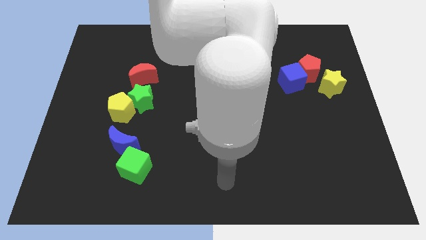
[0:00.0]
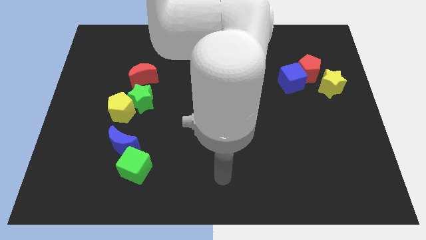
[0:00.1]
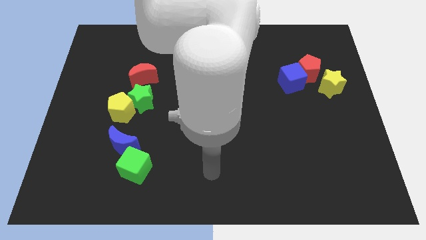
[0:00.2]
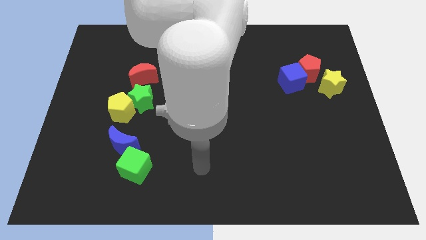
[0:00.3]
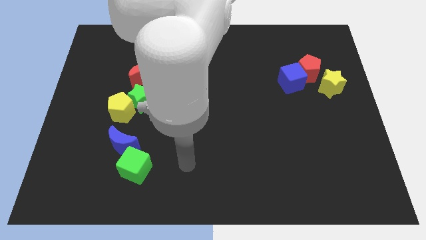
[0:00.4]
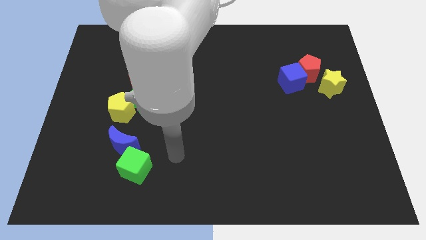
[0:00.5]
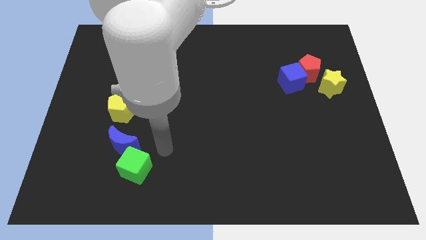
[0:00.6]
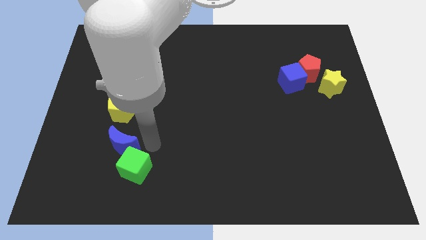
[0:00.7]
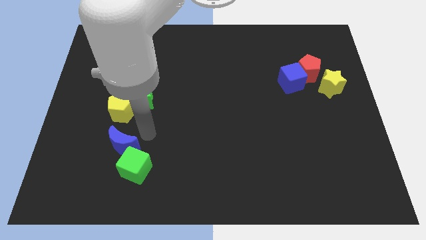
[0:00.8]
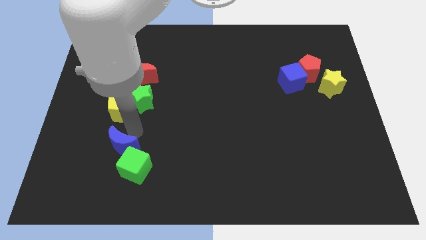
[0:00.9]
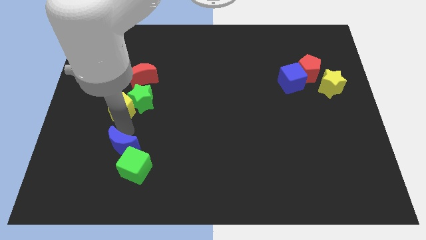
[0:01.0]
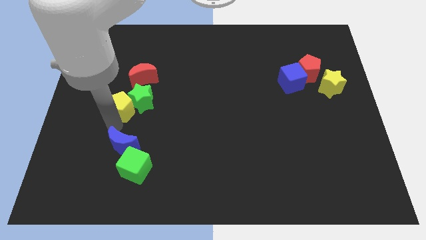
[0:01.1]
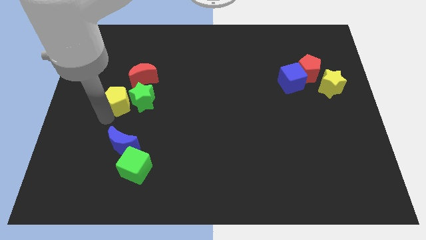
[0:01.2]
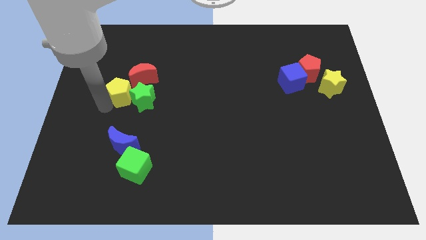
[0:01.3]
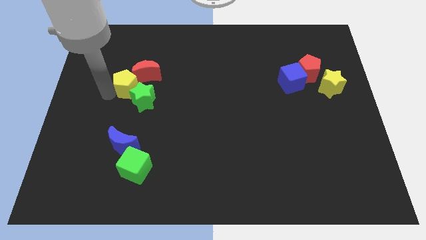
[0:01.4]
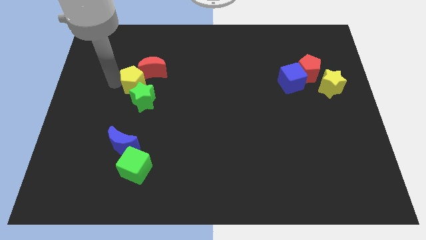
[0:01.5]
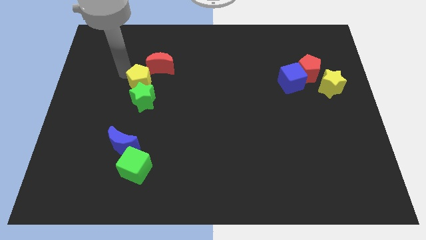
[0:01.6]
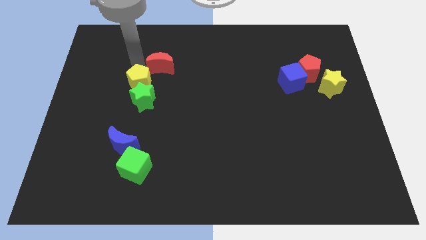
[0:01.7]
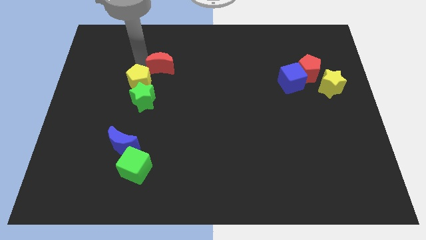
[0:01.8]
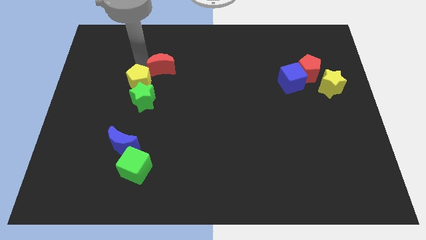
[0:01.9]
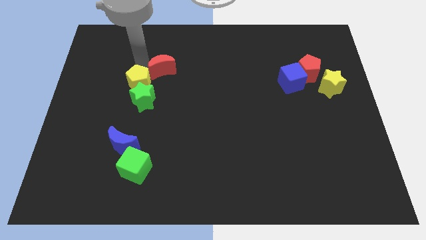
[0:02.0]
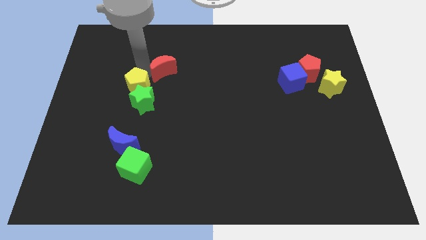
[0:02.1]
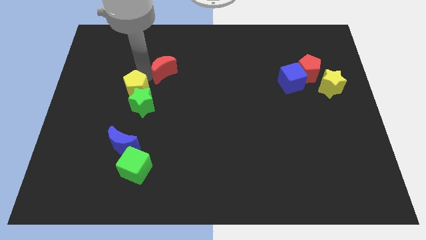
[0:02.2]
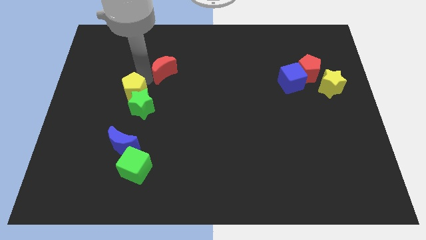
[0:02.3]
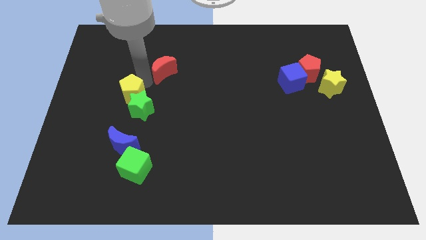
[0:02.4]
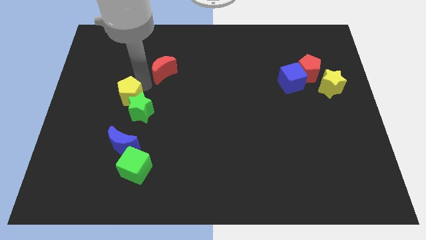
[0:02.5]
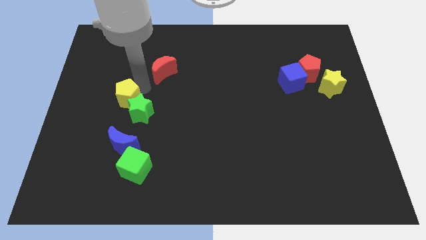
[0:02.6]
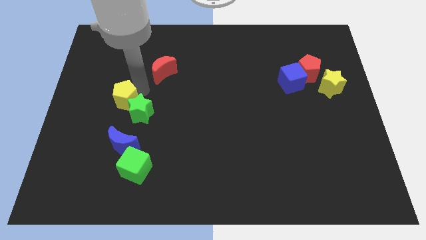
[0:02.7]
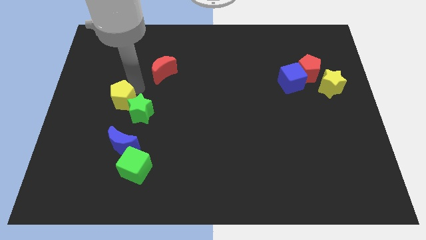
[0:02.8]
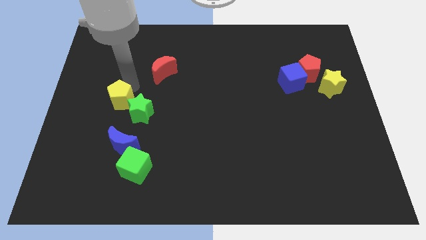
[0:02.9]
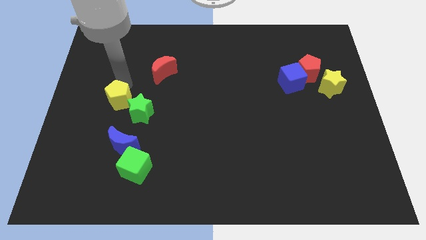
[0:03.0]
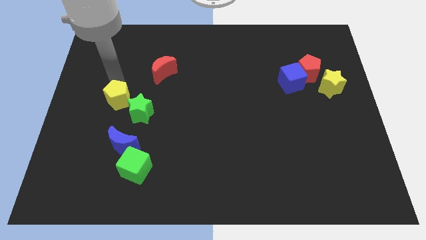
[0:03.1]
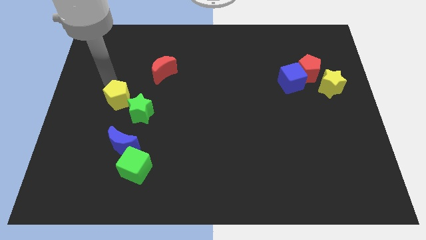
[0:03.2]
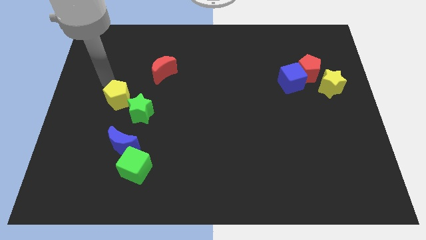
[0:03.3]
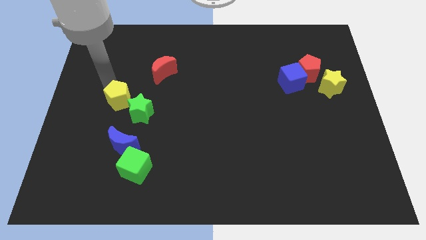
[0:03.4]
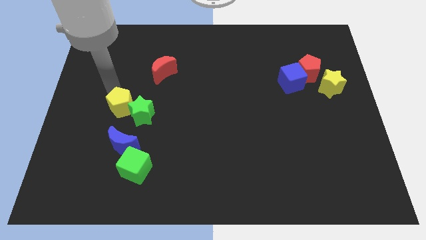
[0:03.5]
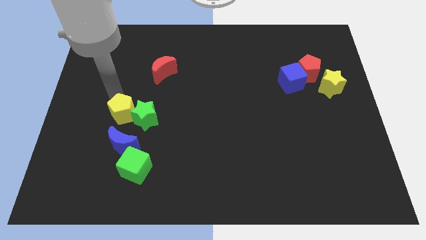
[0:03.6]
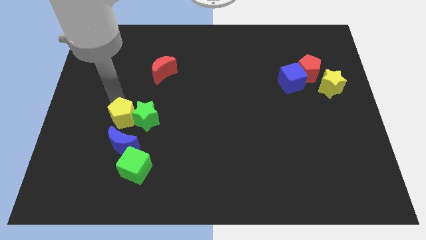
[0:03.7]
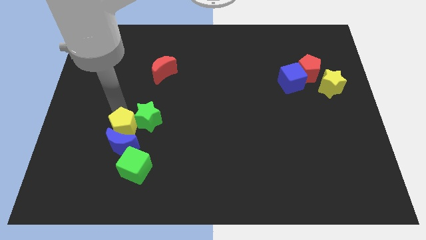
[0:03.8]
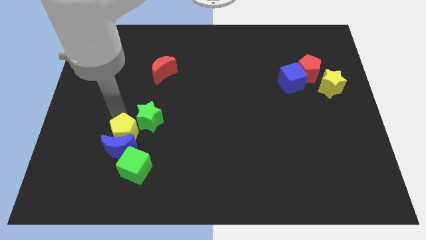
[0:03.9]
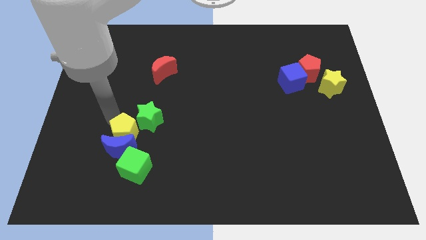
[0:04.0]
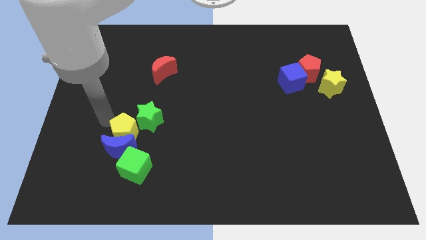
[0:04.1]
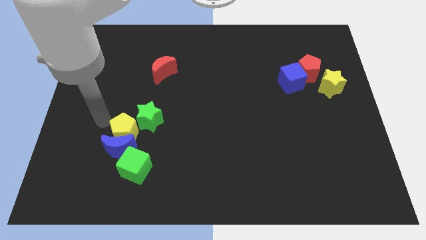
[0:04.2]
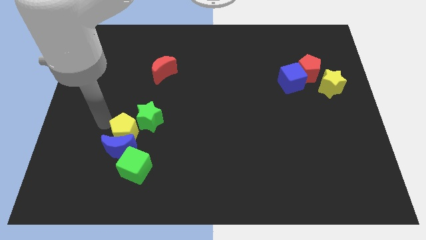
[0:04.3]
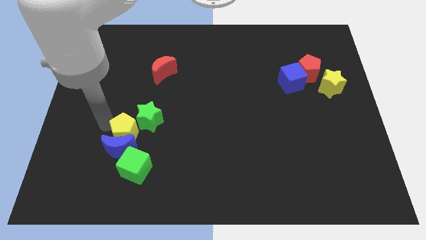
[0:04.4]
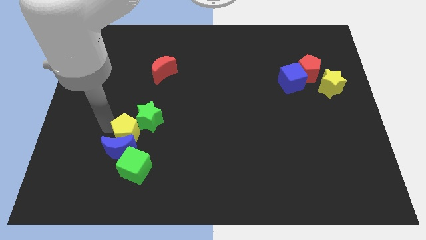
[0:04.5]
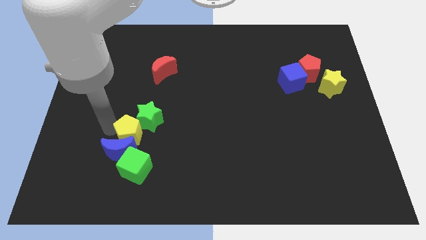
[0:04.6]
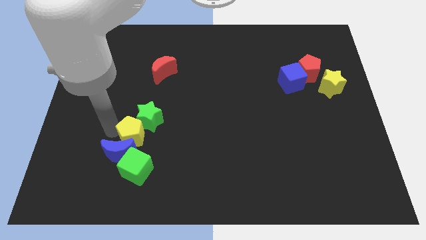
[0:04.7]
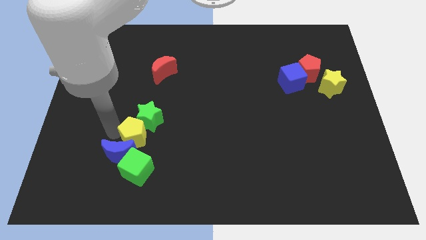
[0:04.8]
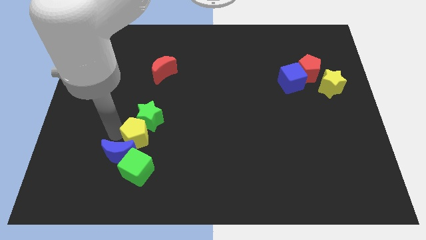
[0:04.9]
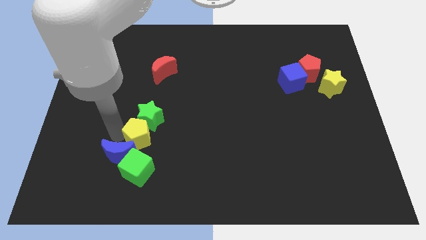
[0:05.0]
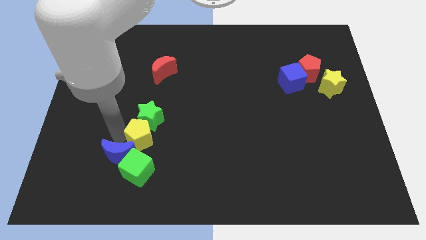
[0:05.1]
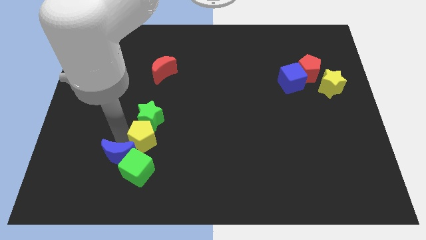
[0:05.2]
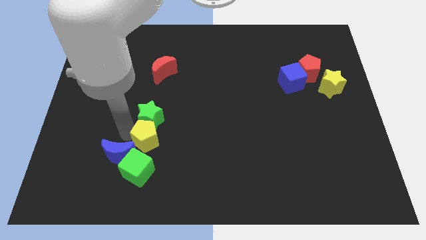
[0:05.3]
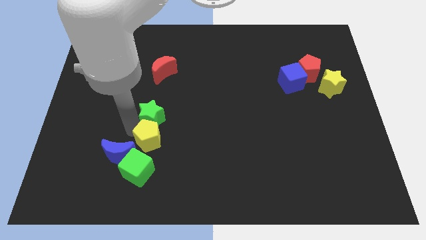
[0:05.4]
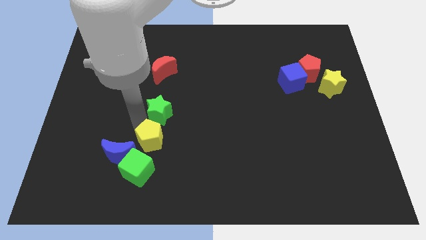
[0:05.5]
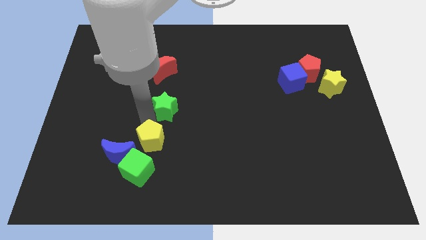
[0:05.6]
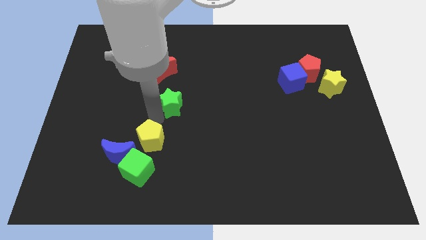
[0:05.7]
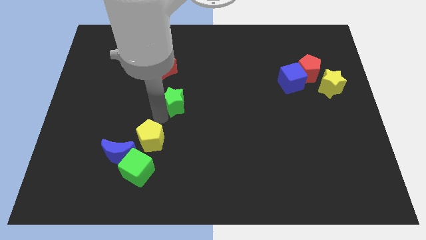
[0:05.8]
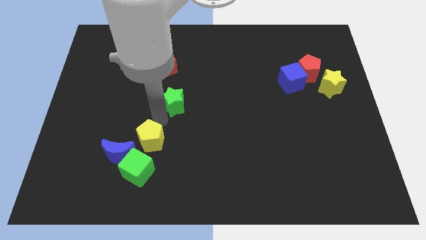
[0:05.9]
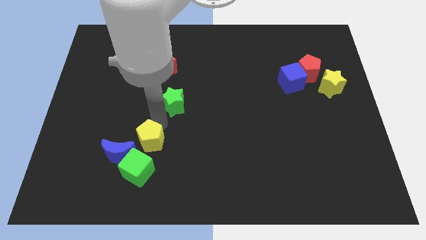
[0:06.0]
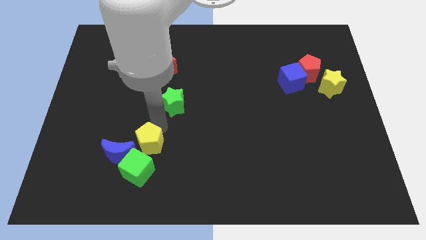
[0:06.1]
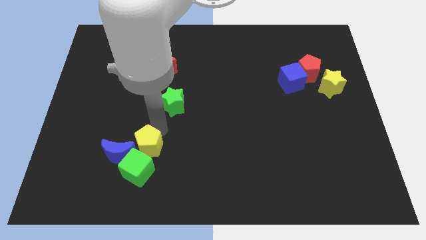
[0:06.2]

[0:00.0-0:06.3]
push the yellow pentagon close to the green cube

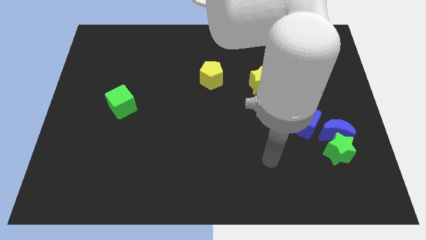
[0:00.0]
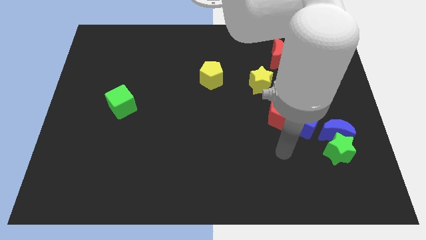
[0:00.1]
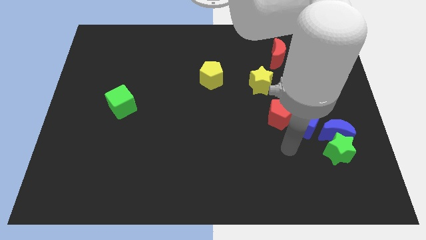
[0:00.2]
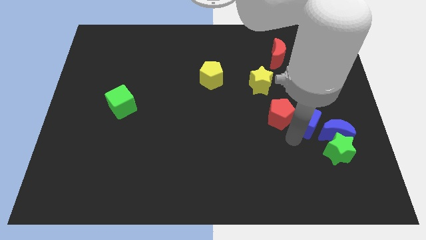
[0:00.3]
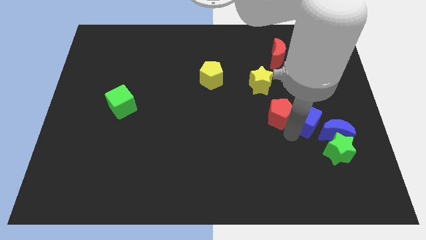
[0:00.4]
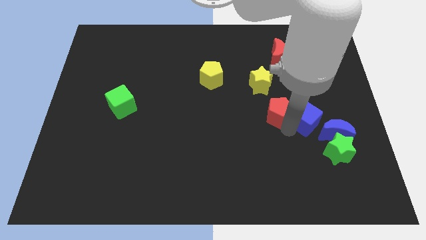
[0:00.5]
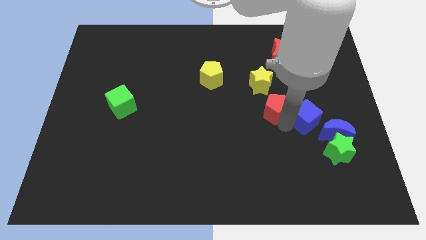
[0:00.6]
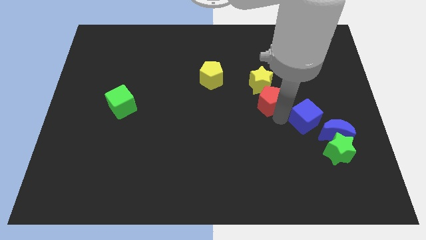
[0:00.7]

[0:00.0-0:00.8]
move the red pentagon towards the yellow star
